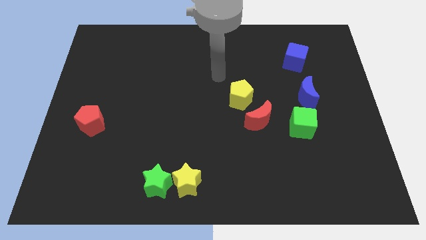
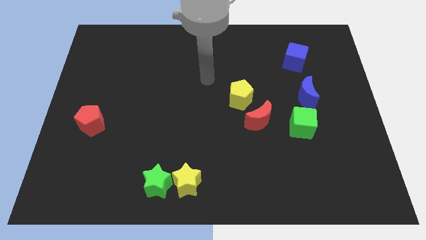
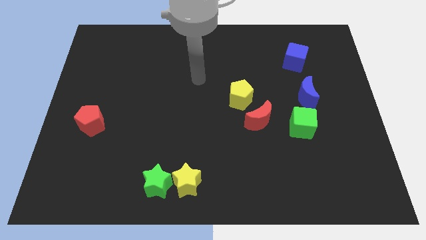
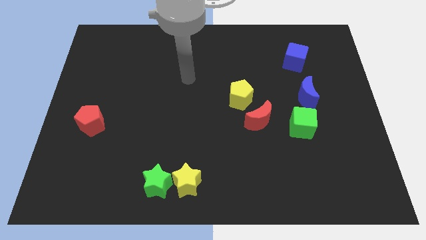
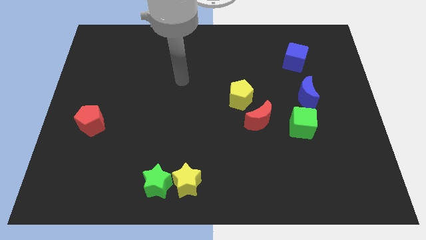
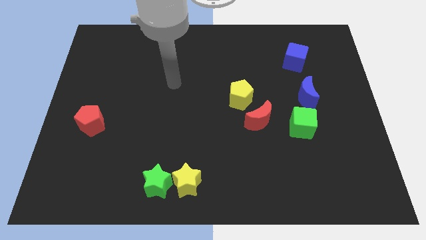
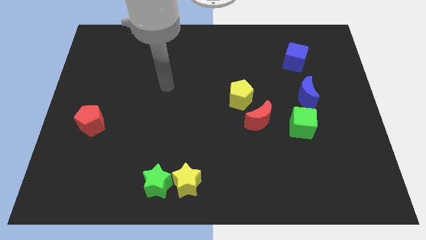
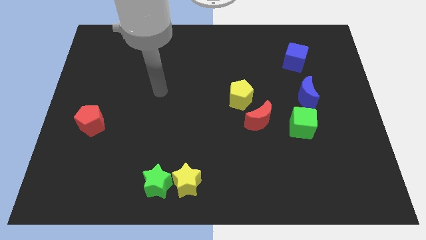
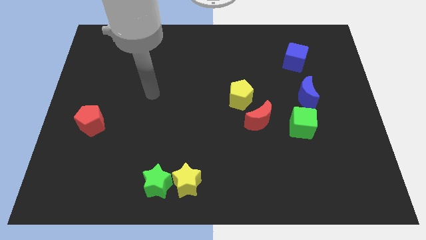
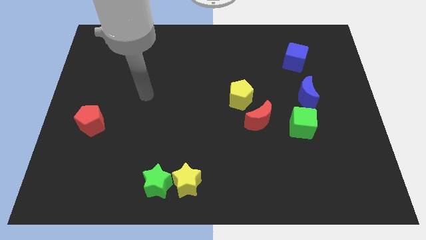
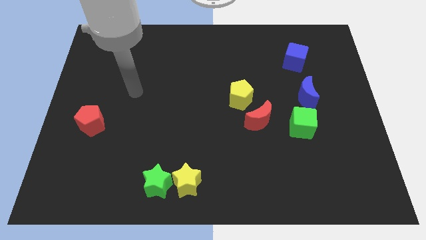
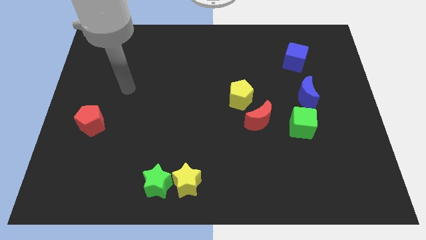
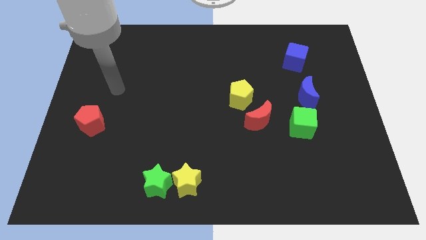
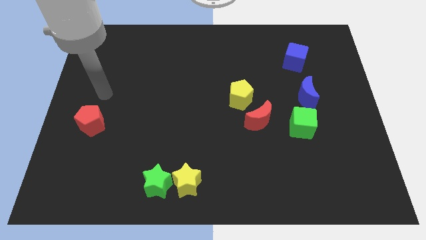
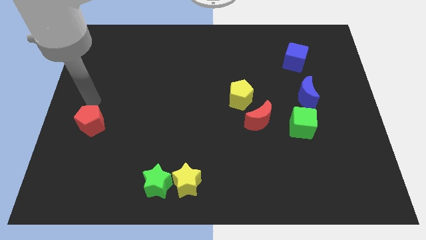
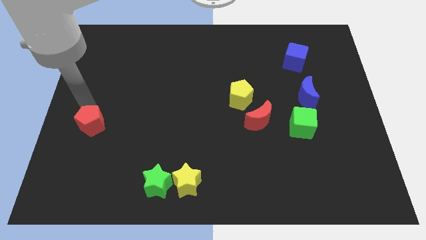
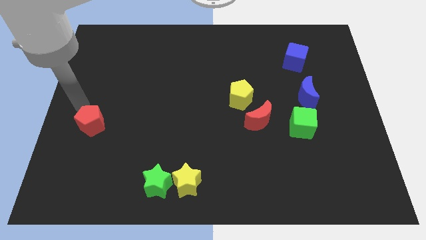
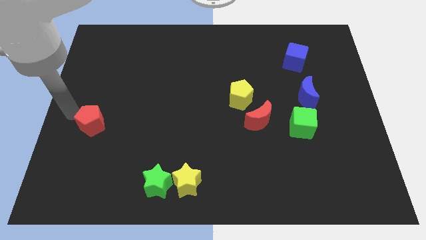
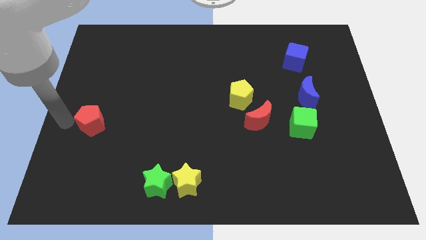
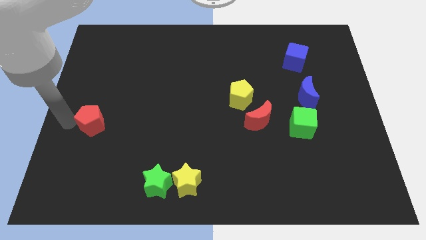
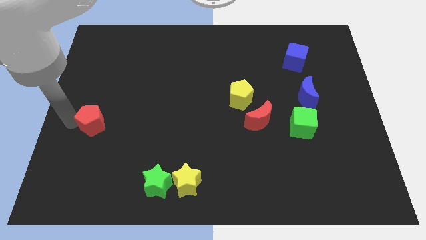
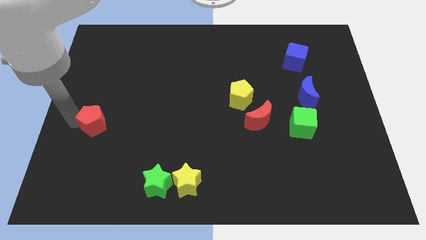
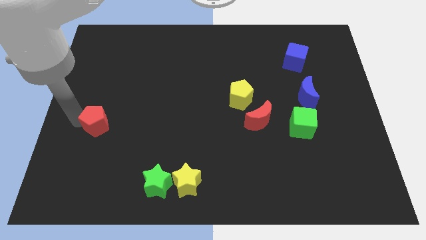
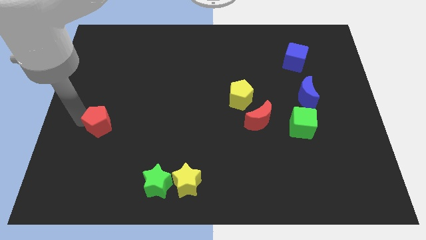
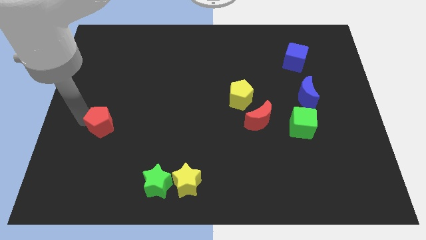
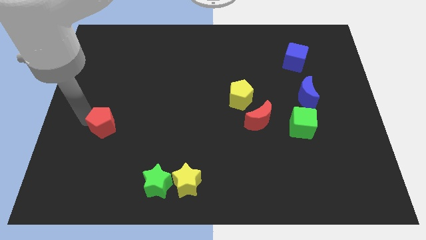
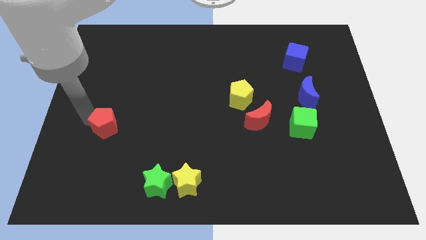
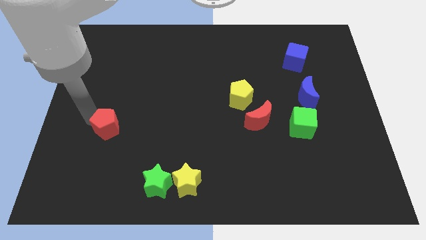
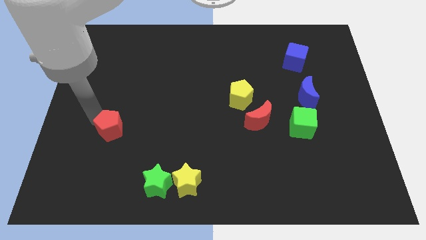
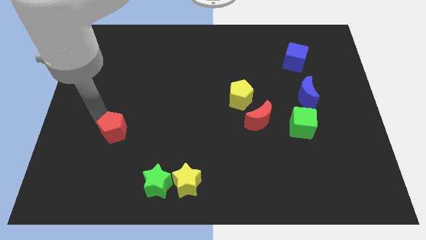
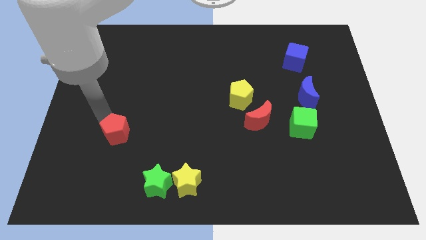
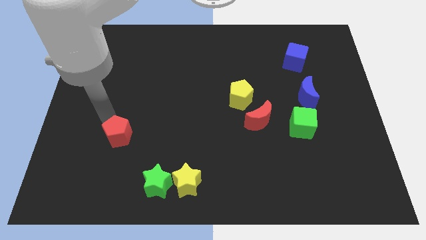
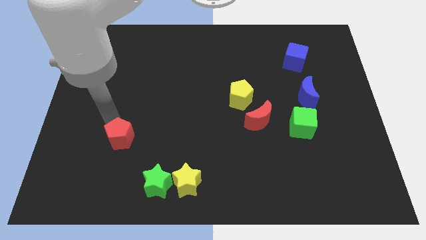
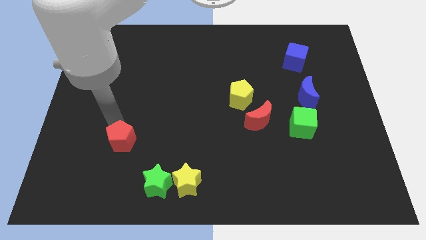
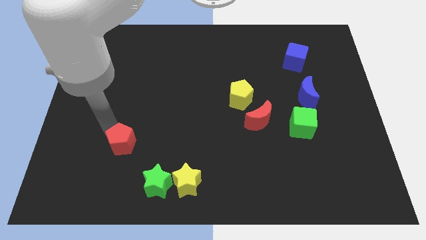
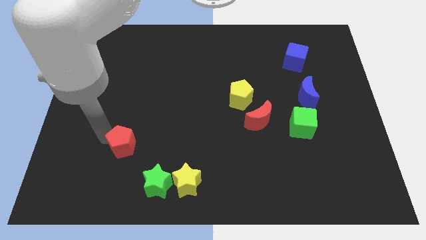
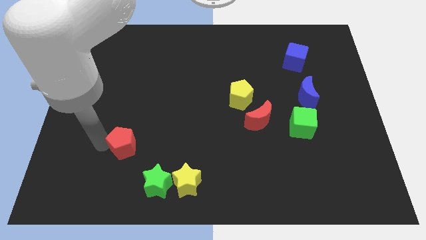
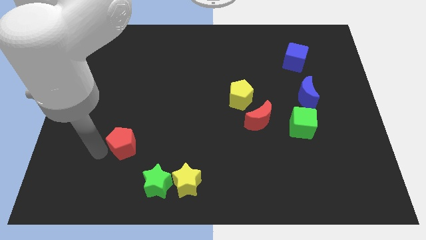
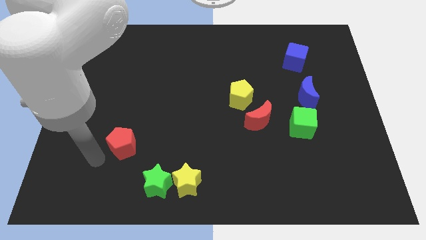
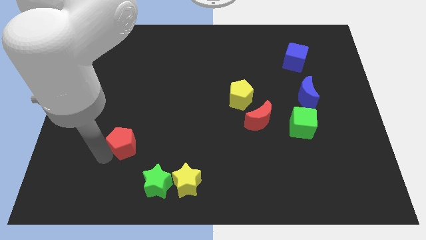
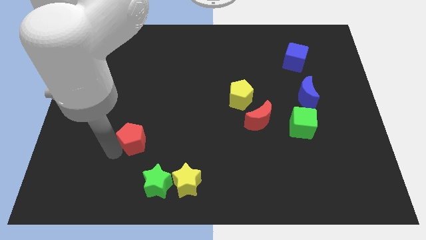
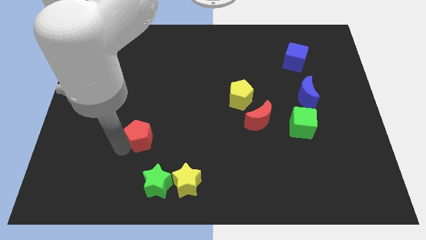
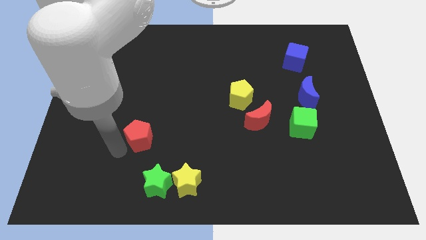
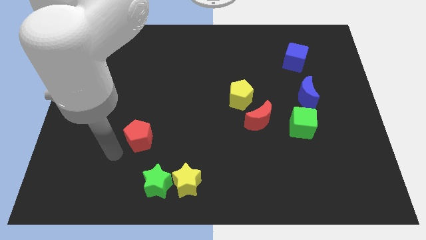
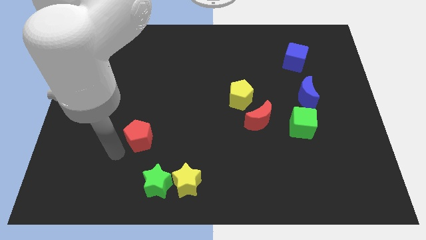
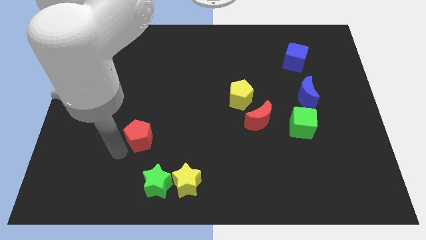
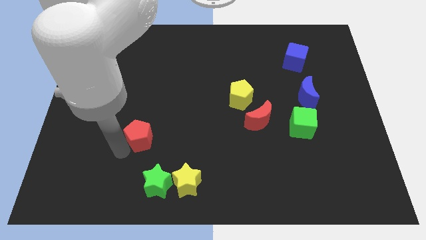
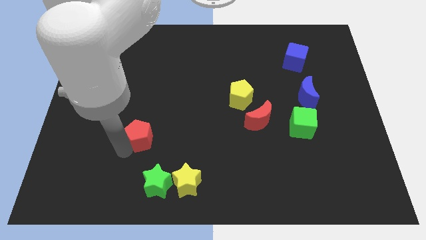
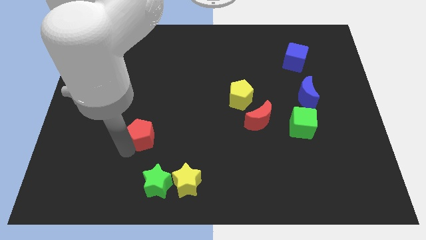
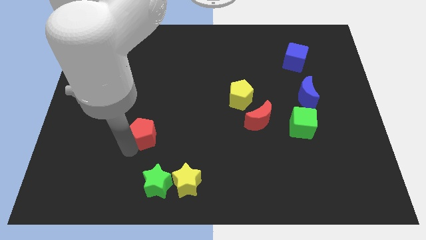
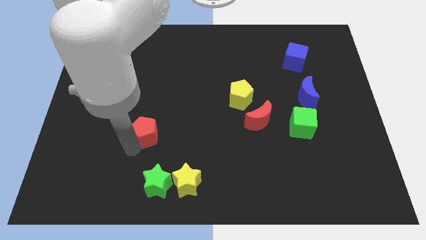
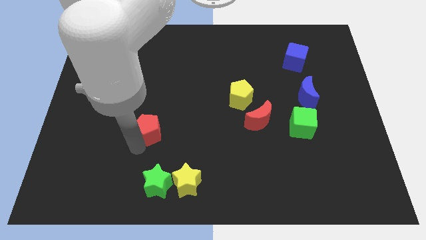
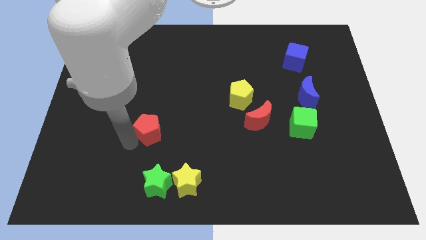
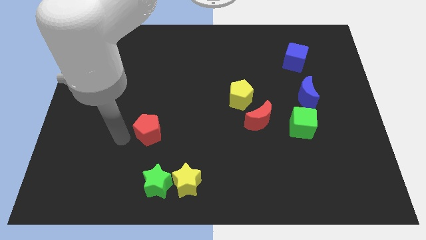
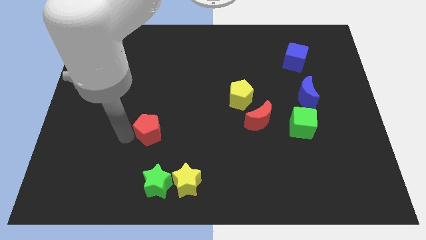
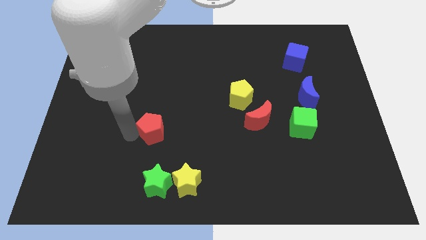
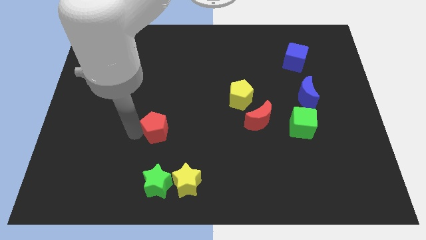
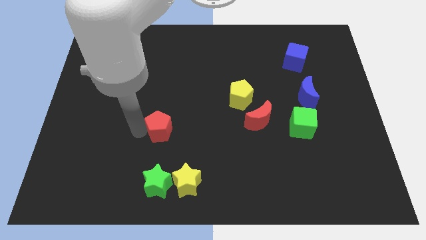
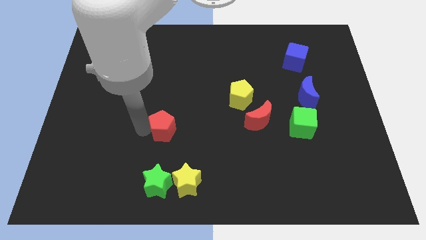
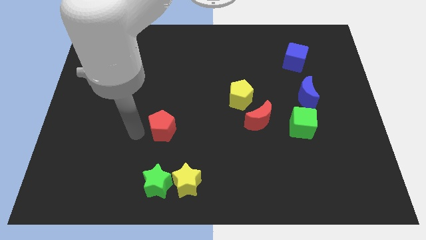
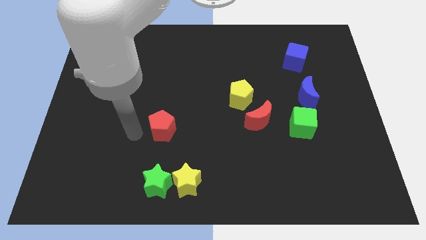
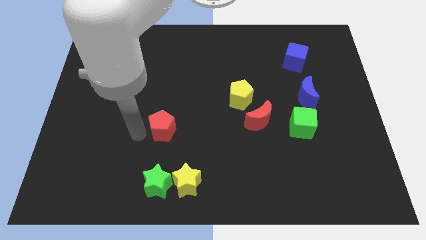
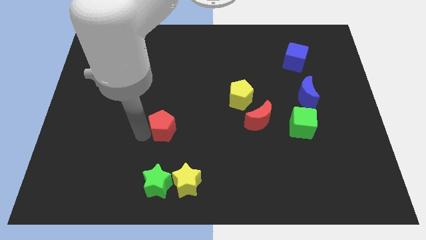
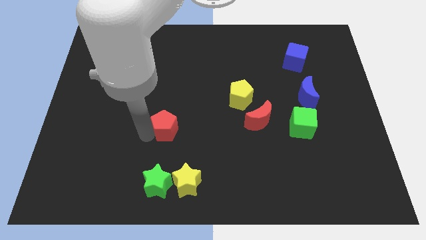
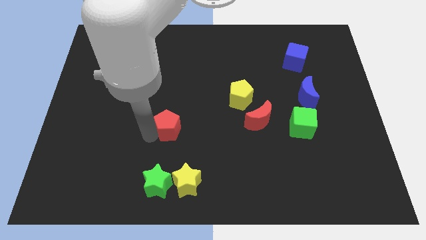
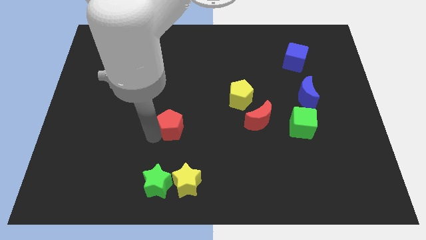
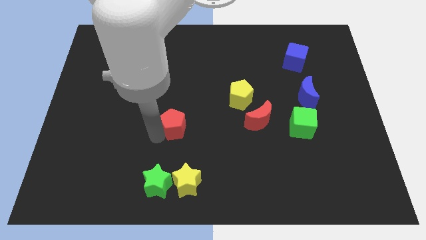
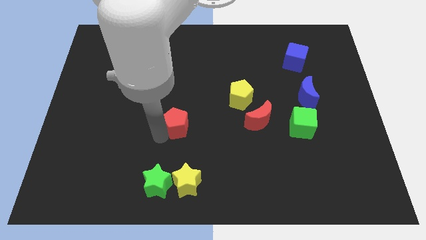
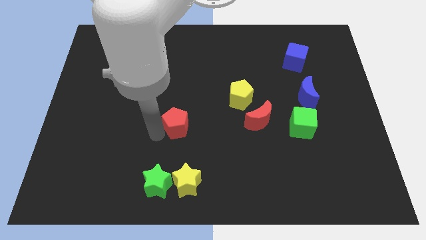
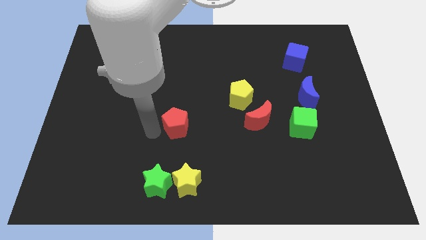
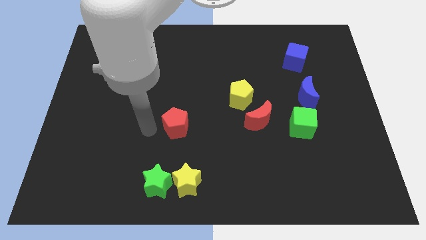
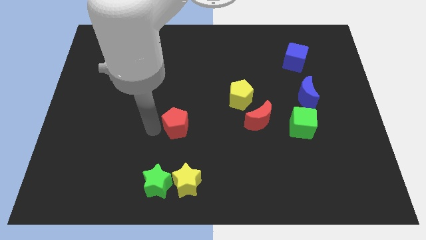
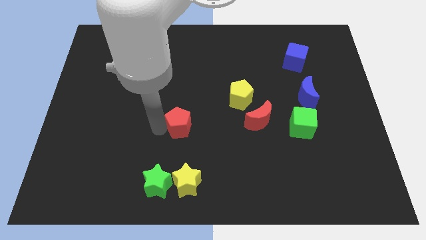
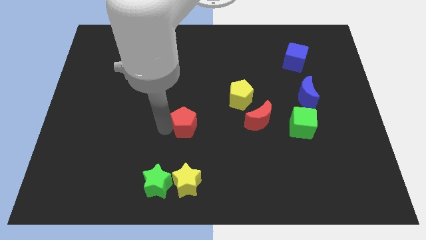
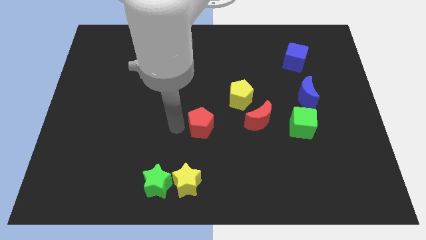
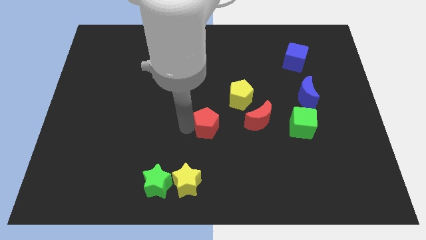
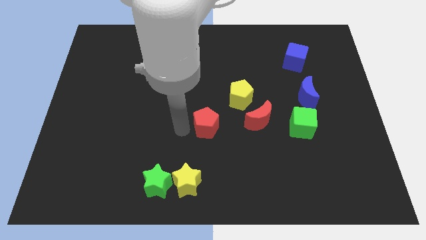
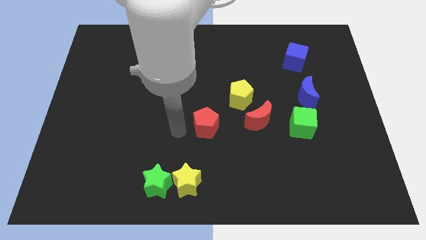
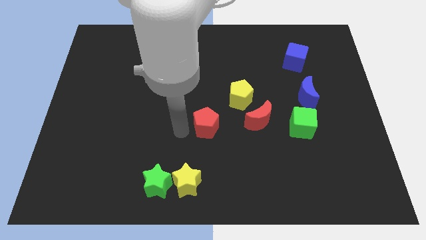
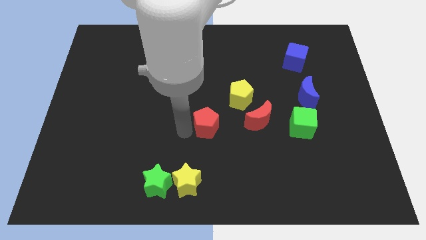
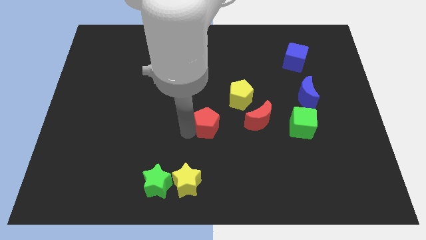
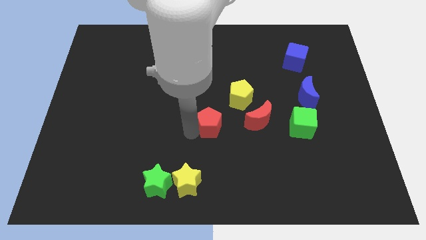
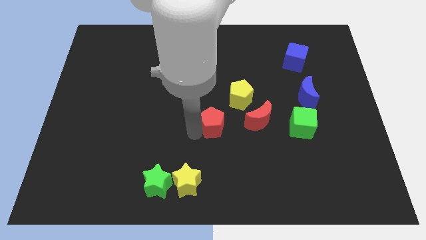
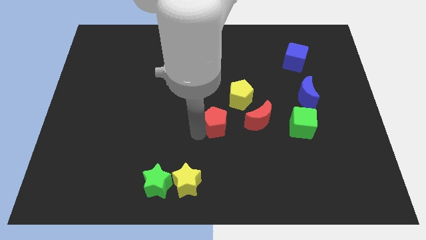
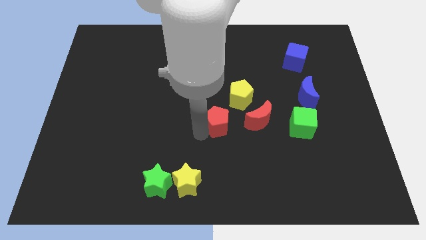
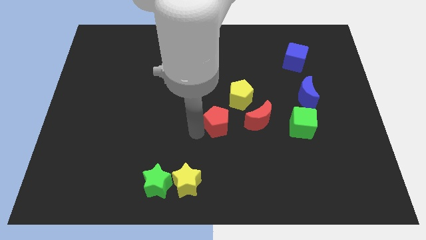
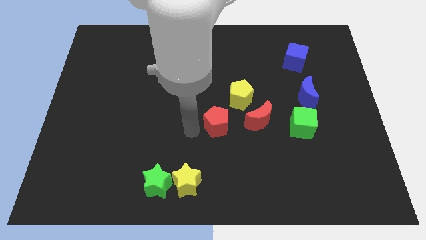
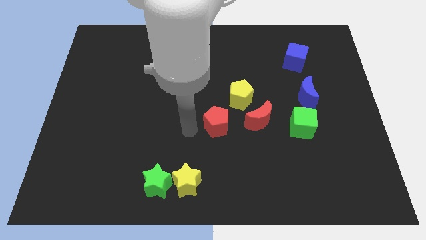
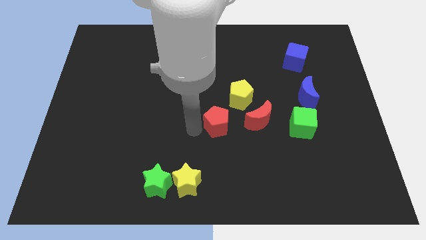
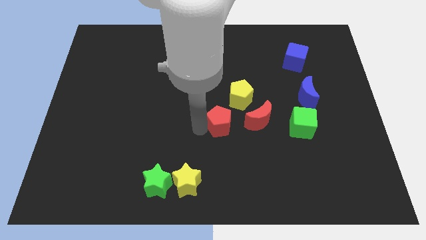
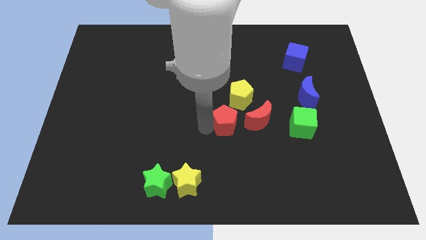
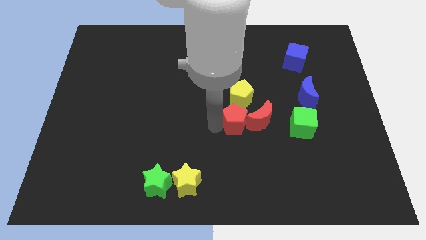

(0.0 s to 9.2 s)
move the red pentagon to the red moon
